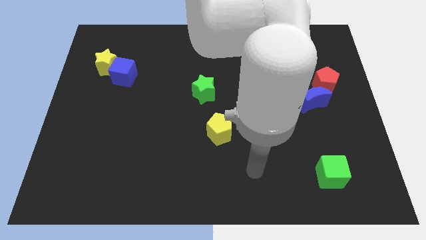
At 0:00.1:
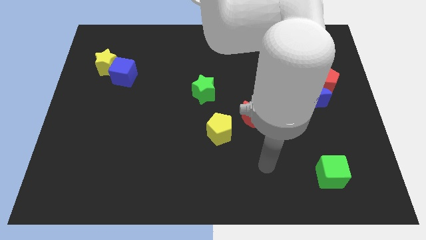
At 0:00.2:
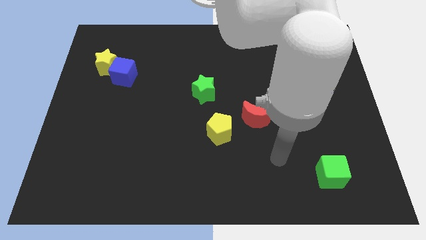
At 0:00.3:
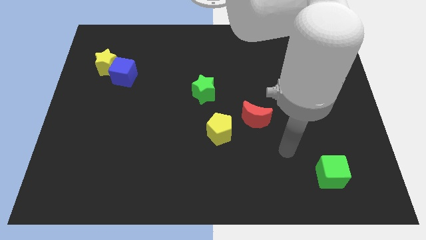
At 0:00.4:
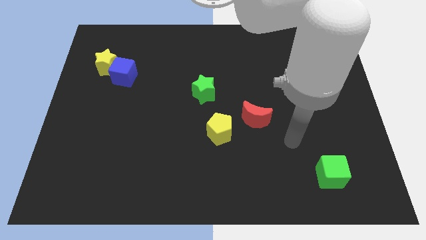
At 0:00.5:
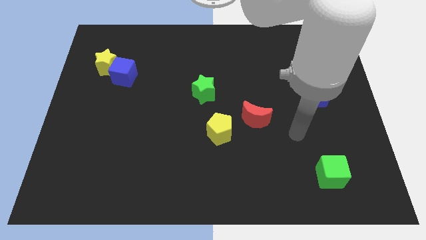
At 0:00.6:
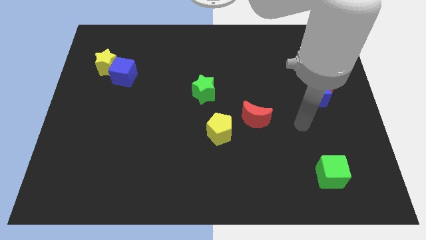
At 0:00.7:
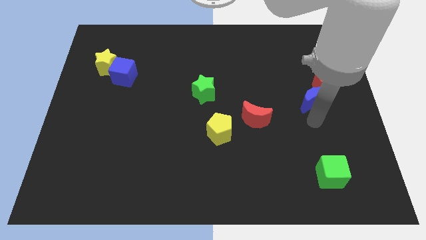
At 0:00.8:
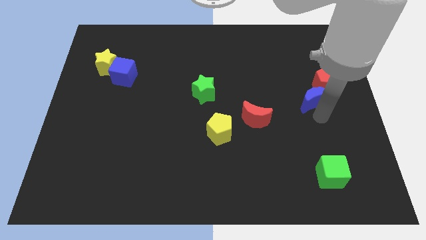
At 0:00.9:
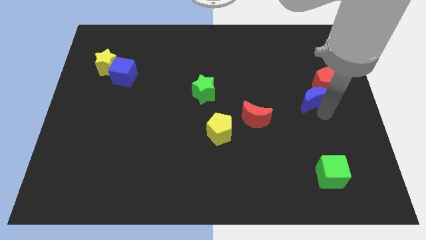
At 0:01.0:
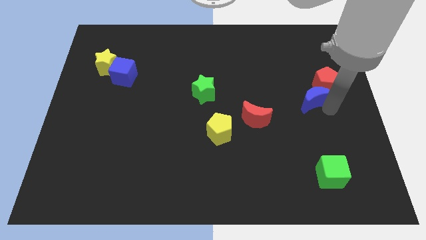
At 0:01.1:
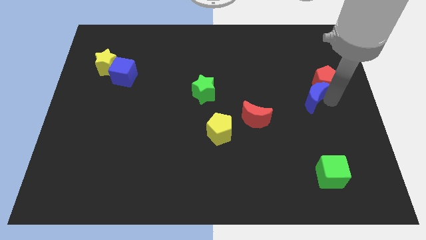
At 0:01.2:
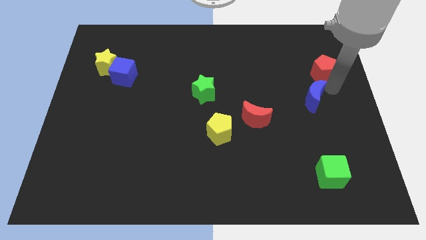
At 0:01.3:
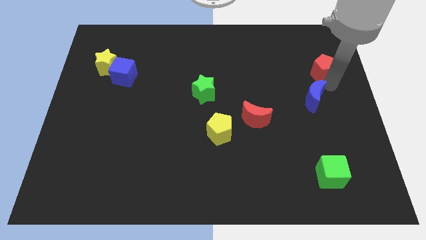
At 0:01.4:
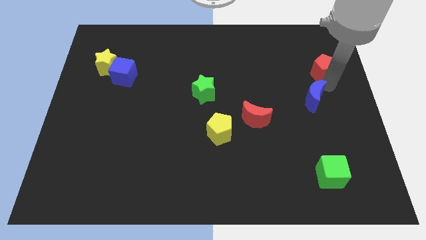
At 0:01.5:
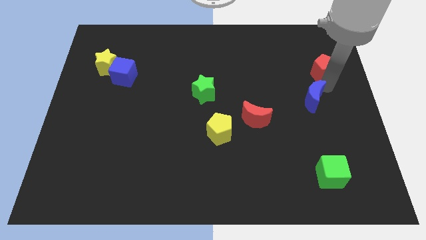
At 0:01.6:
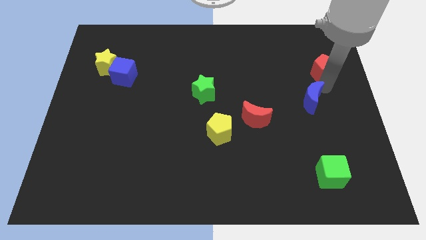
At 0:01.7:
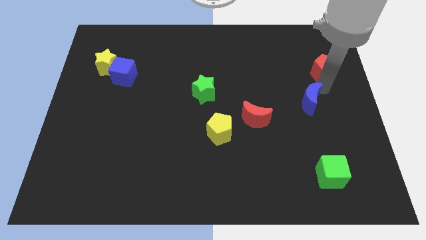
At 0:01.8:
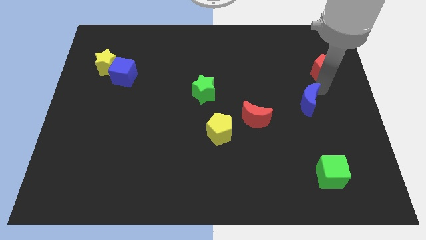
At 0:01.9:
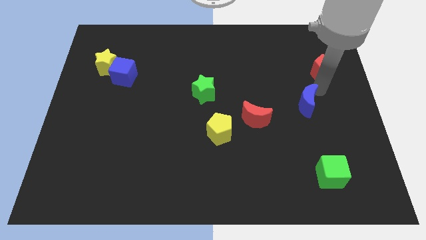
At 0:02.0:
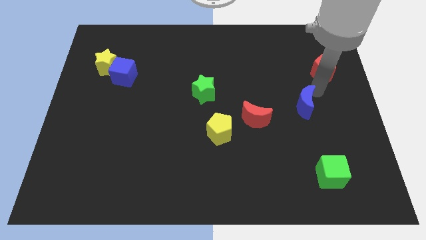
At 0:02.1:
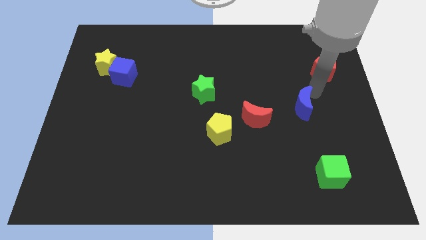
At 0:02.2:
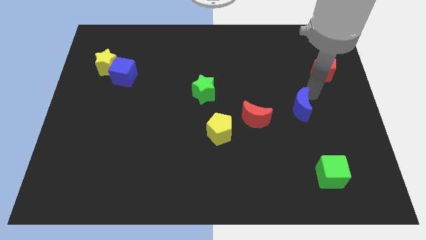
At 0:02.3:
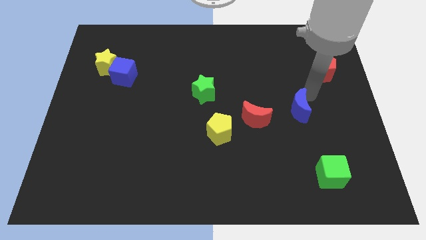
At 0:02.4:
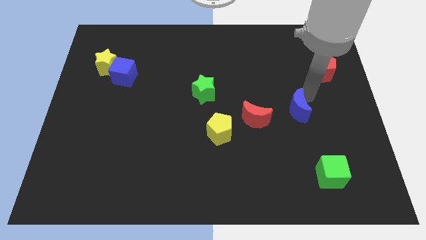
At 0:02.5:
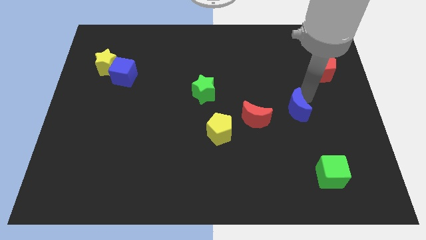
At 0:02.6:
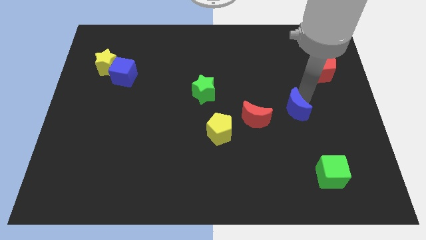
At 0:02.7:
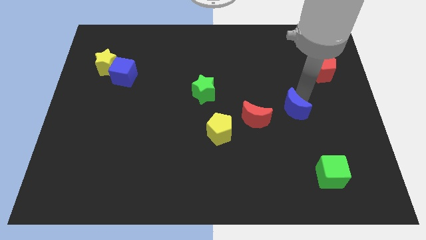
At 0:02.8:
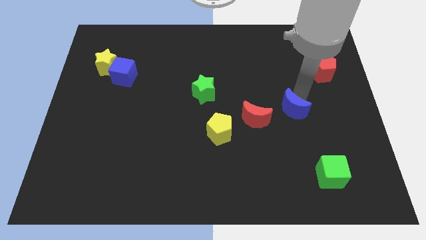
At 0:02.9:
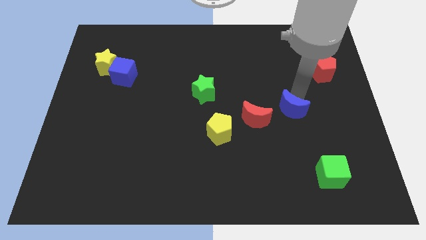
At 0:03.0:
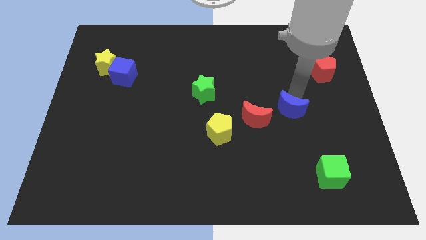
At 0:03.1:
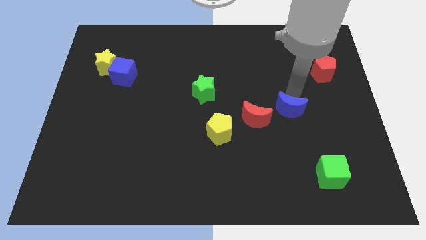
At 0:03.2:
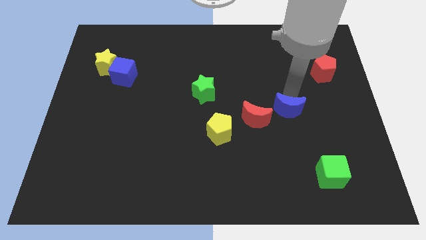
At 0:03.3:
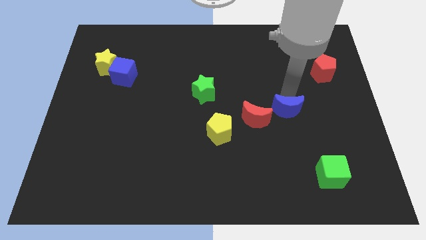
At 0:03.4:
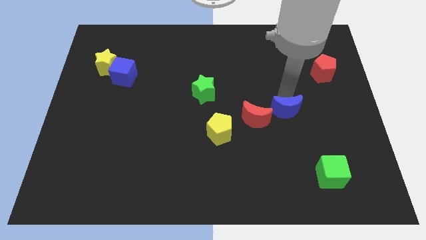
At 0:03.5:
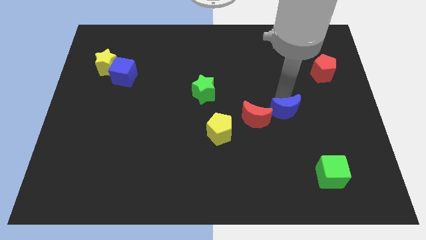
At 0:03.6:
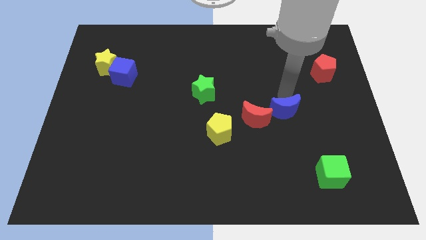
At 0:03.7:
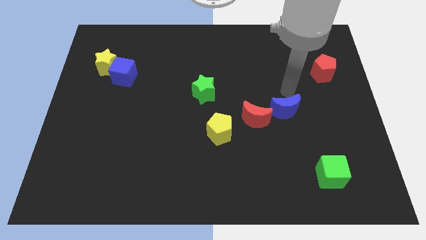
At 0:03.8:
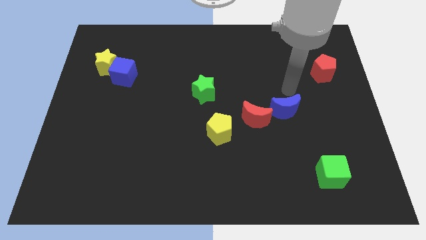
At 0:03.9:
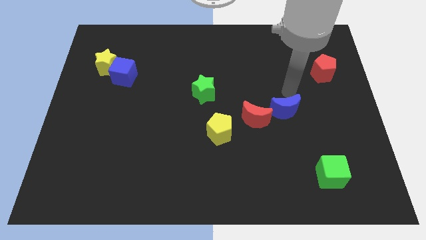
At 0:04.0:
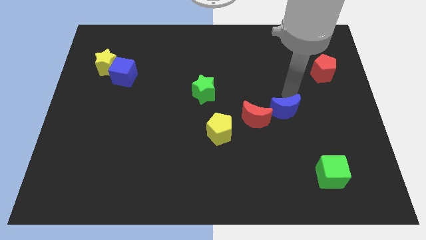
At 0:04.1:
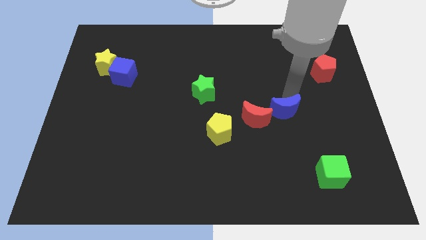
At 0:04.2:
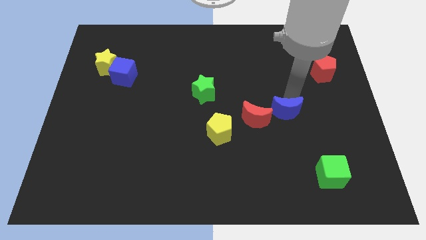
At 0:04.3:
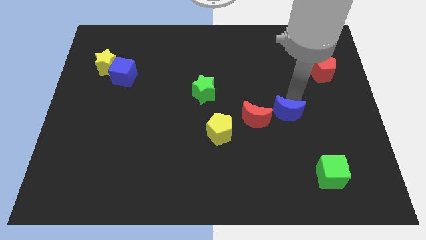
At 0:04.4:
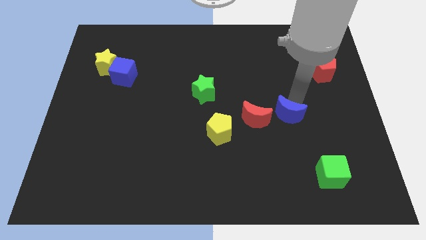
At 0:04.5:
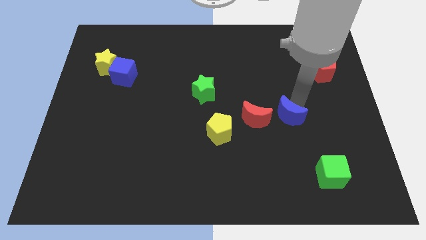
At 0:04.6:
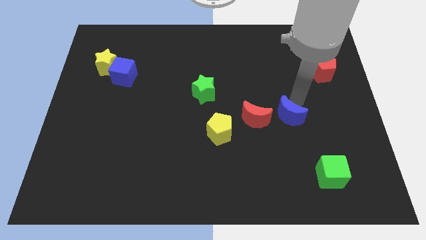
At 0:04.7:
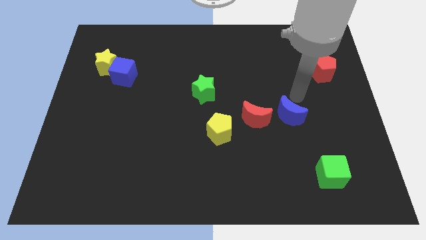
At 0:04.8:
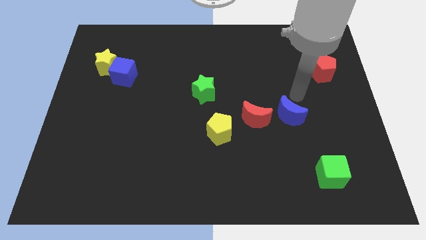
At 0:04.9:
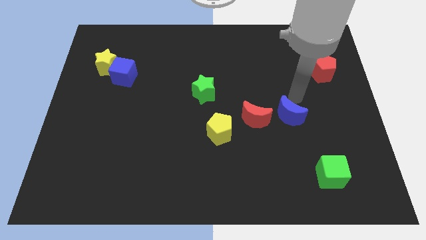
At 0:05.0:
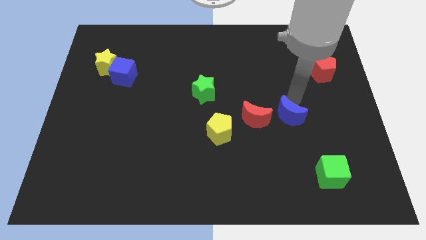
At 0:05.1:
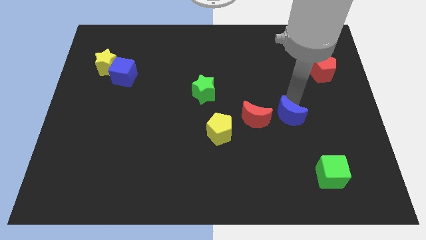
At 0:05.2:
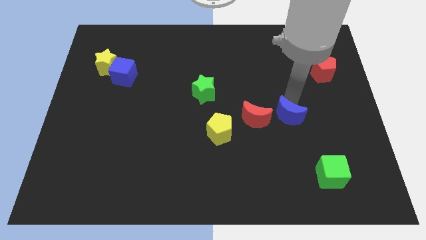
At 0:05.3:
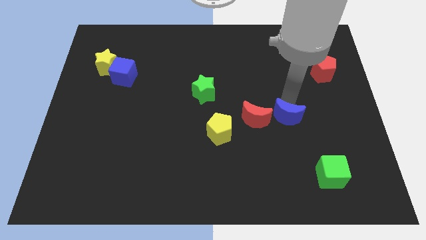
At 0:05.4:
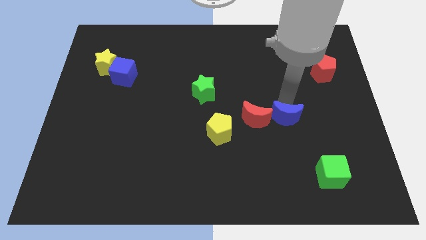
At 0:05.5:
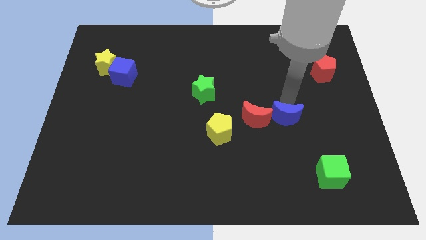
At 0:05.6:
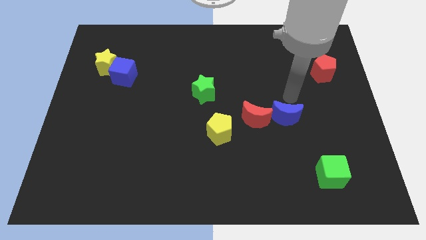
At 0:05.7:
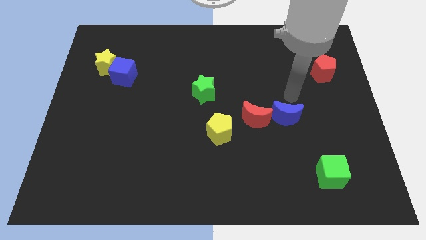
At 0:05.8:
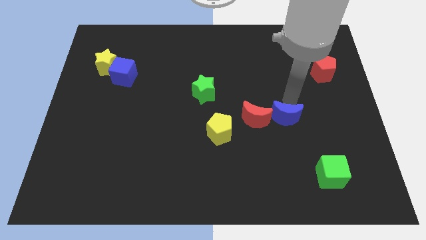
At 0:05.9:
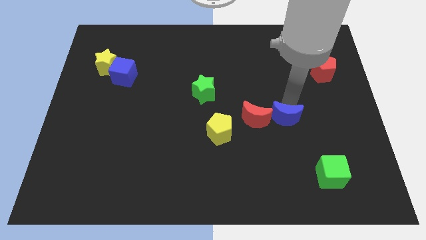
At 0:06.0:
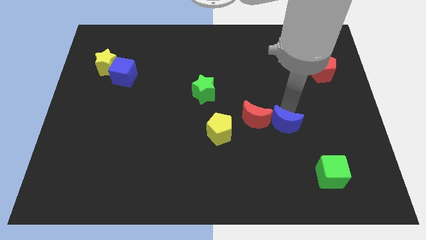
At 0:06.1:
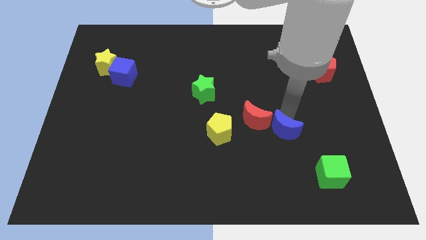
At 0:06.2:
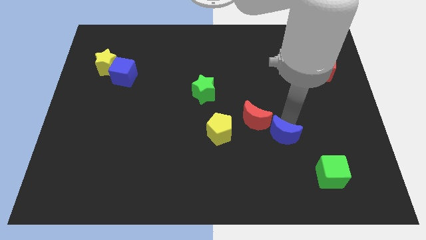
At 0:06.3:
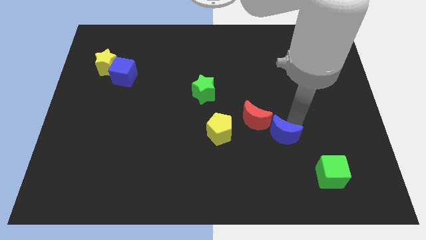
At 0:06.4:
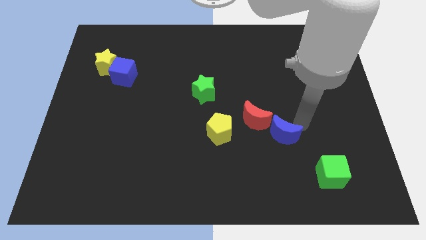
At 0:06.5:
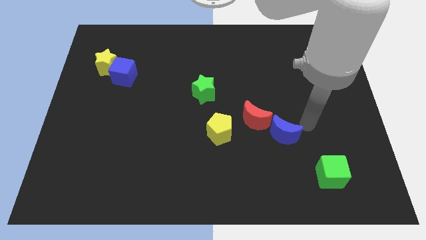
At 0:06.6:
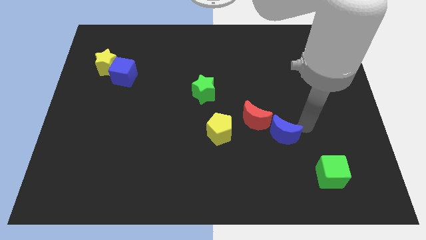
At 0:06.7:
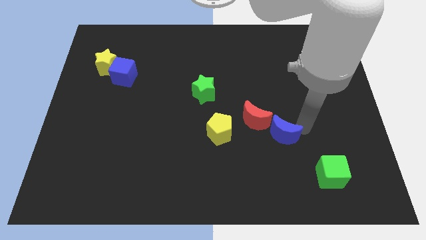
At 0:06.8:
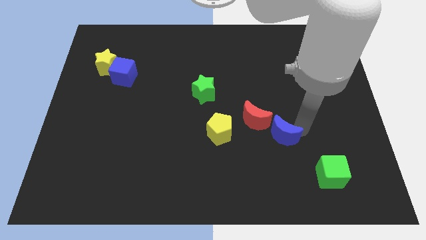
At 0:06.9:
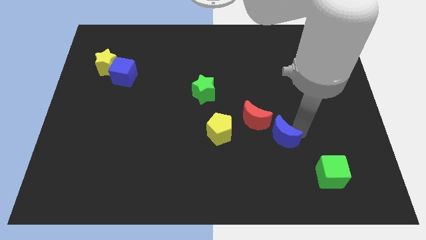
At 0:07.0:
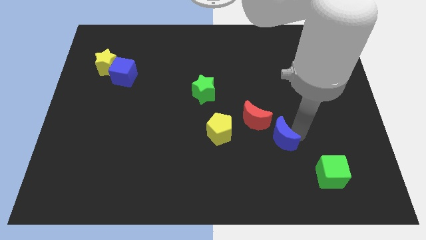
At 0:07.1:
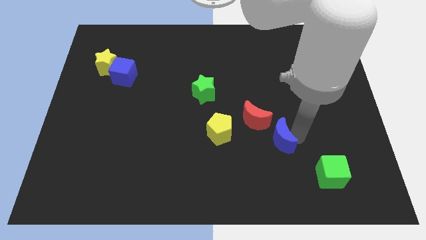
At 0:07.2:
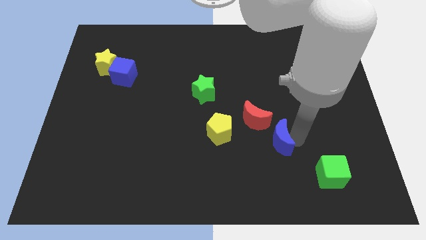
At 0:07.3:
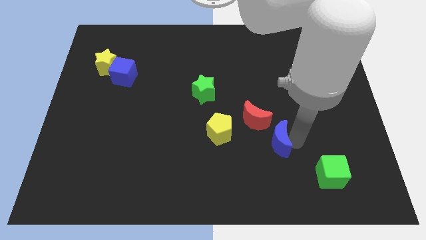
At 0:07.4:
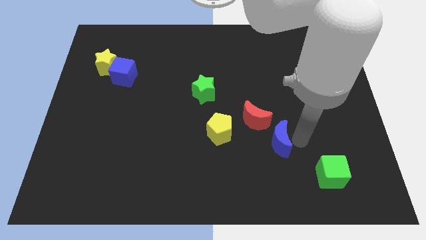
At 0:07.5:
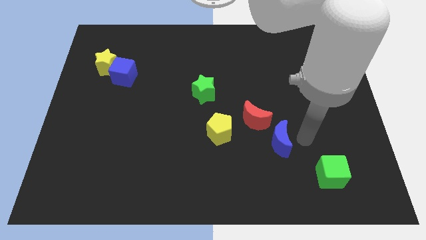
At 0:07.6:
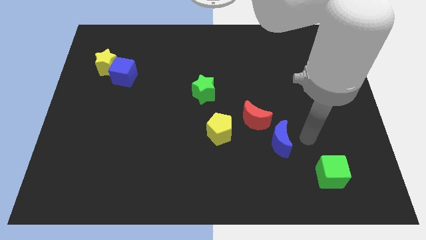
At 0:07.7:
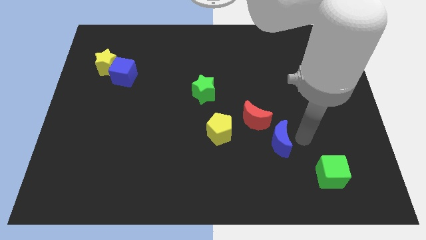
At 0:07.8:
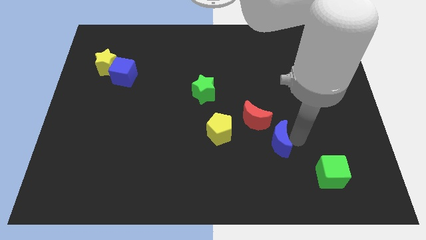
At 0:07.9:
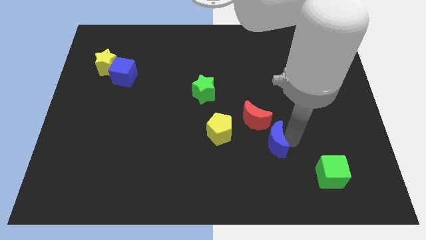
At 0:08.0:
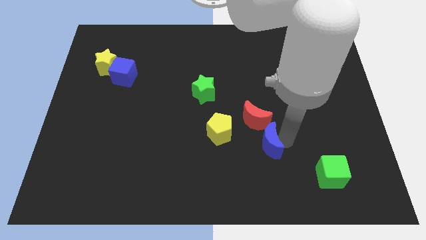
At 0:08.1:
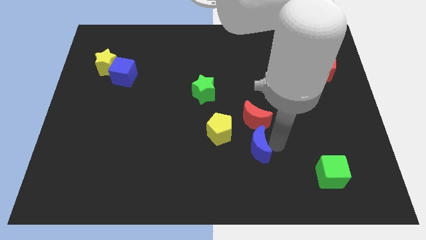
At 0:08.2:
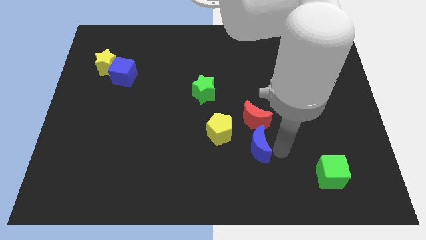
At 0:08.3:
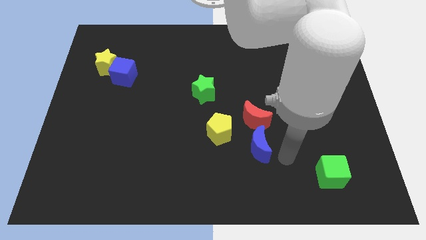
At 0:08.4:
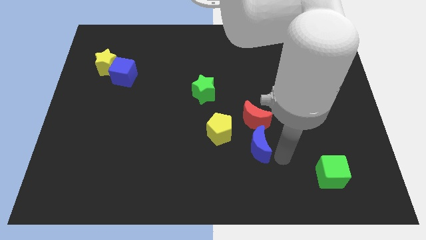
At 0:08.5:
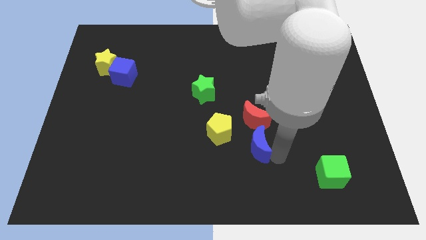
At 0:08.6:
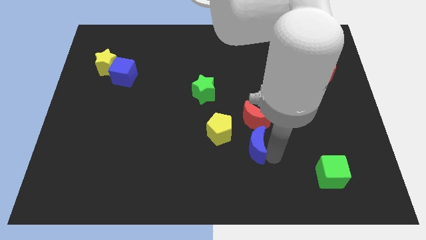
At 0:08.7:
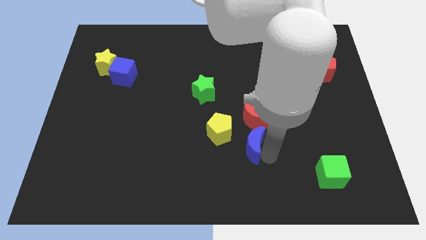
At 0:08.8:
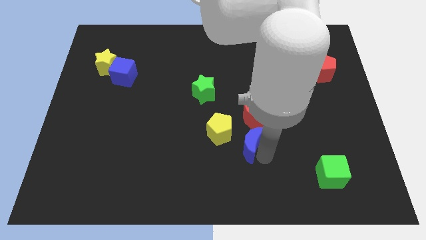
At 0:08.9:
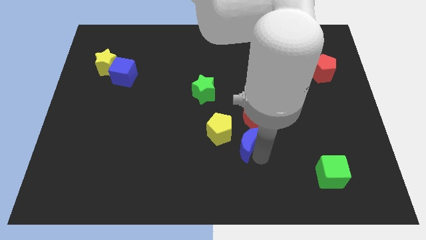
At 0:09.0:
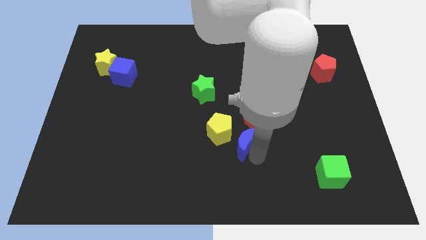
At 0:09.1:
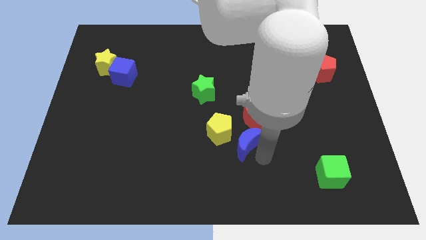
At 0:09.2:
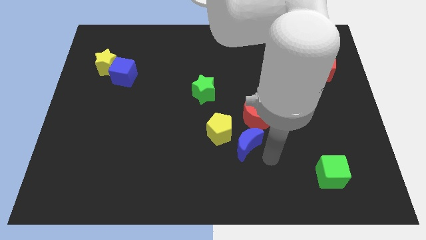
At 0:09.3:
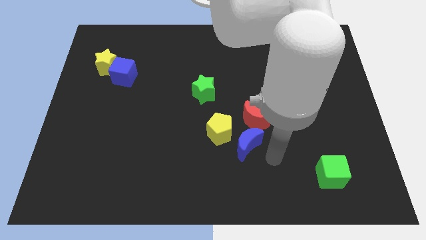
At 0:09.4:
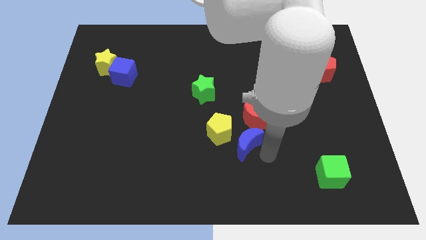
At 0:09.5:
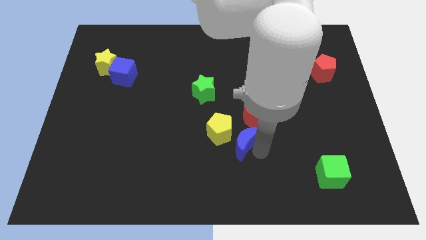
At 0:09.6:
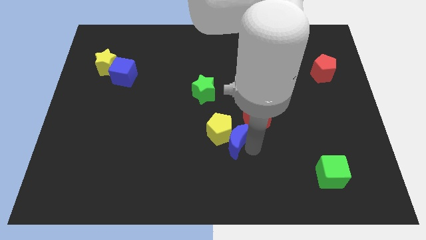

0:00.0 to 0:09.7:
push the blue moon close to the yellow pentagon
